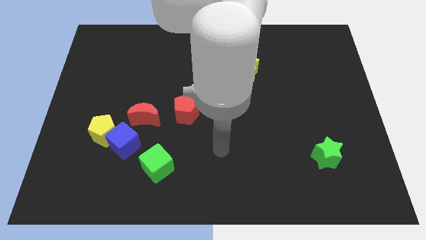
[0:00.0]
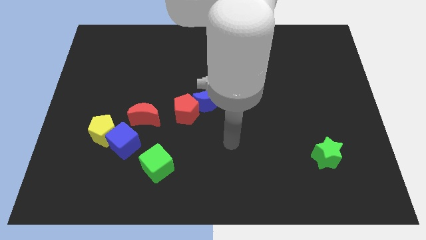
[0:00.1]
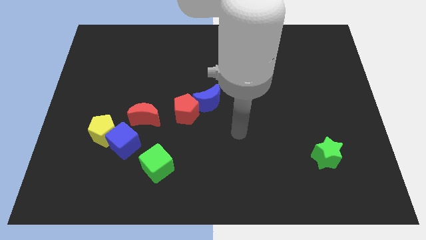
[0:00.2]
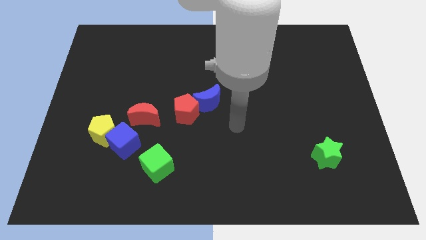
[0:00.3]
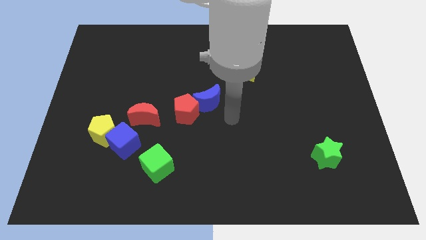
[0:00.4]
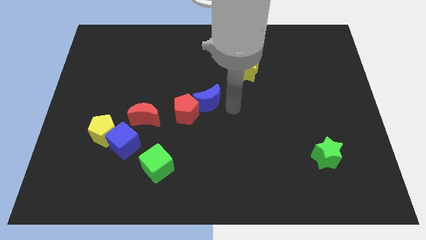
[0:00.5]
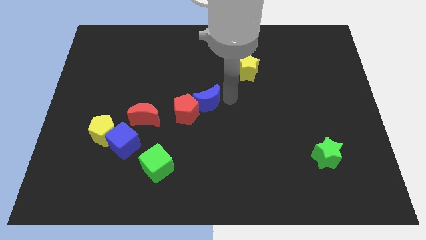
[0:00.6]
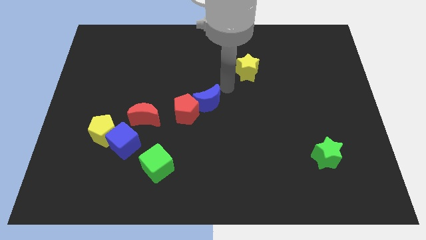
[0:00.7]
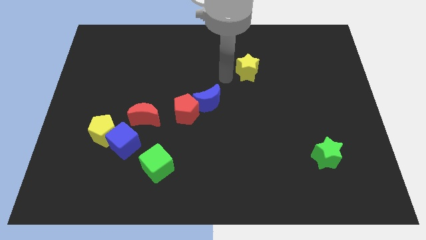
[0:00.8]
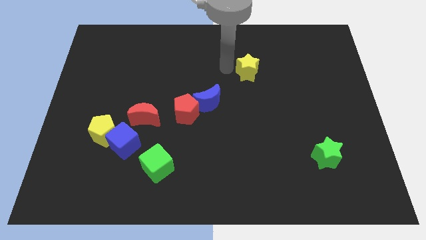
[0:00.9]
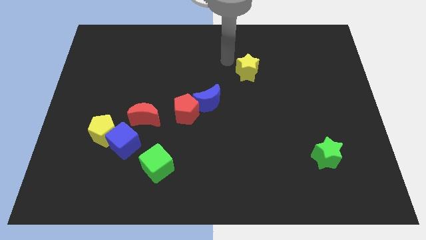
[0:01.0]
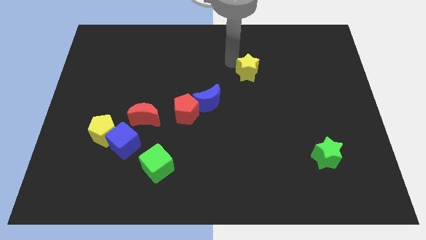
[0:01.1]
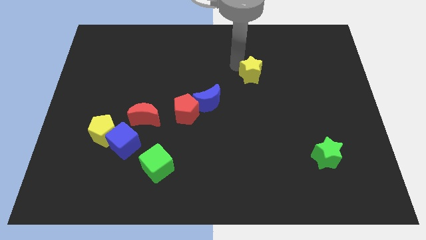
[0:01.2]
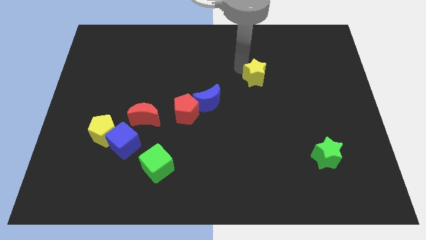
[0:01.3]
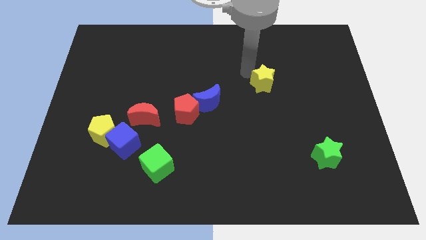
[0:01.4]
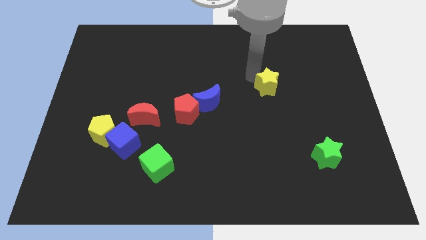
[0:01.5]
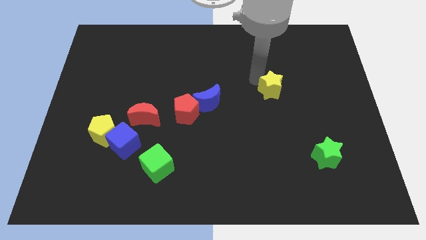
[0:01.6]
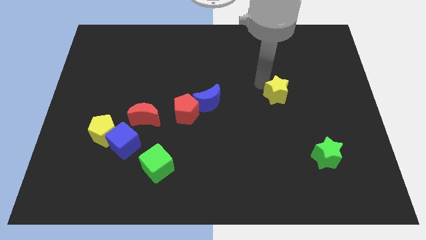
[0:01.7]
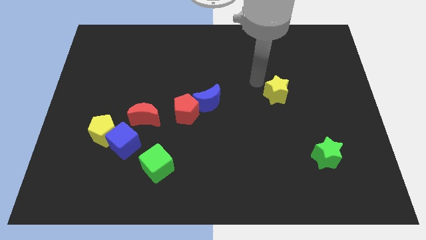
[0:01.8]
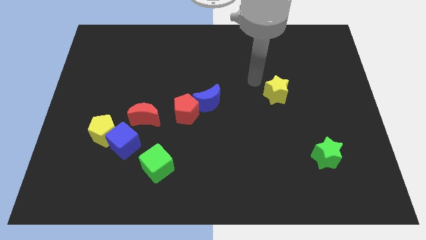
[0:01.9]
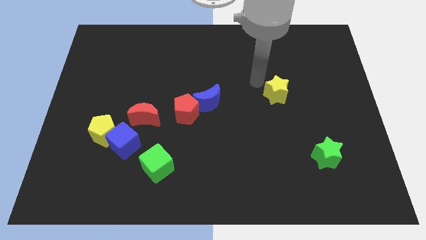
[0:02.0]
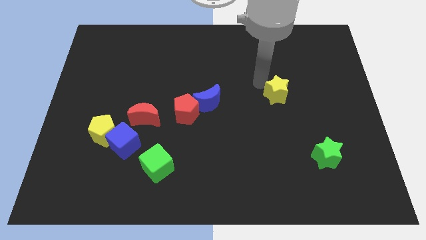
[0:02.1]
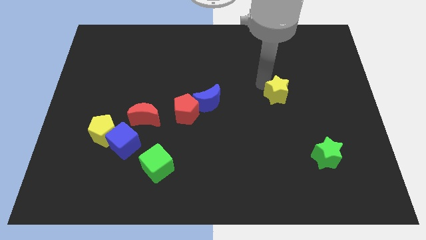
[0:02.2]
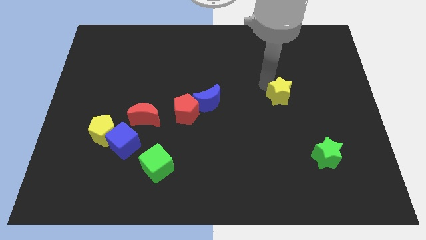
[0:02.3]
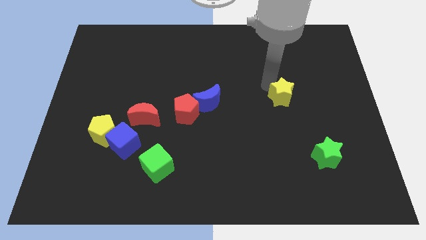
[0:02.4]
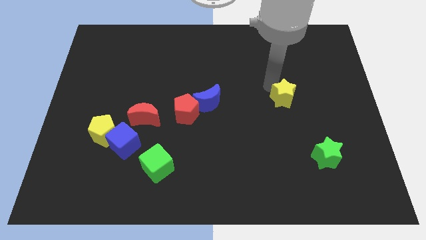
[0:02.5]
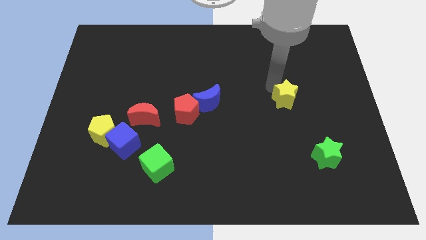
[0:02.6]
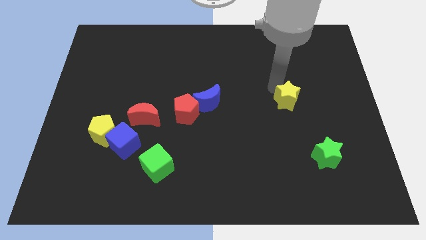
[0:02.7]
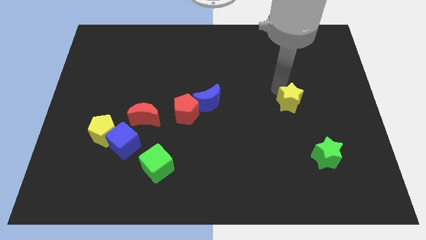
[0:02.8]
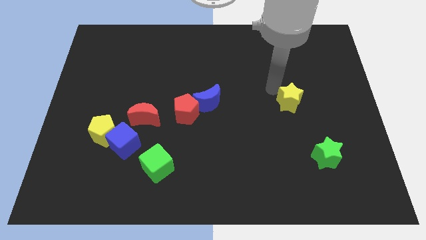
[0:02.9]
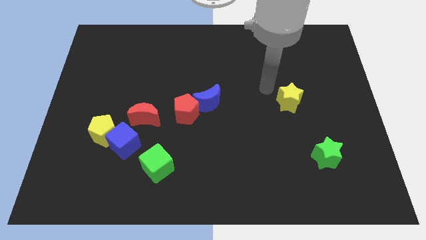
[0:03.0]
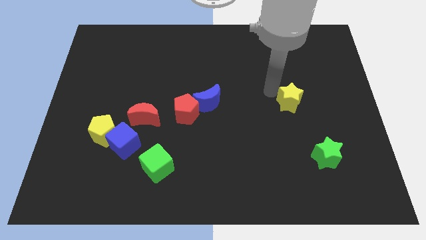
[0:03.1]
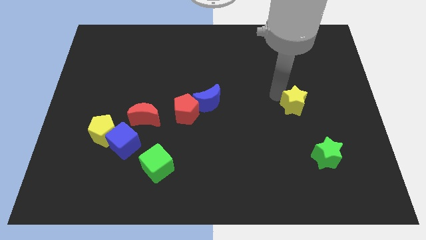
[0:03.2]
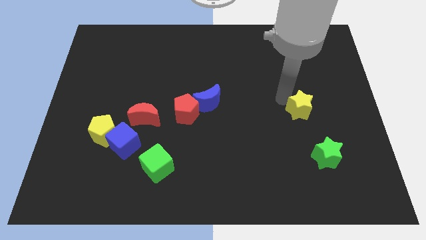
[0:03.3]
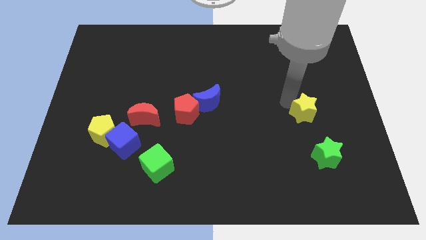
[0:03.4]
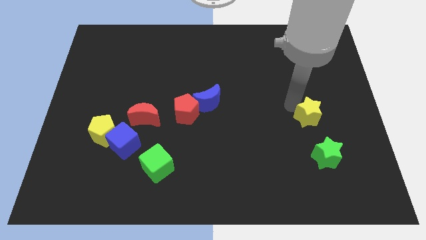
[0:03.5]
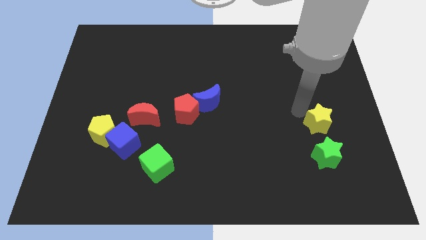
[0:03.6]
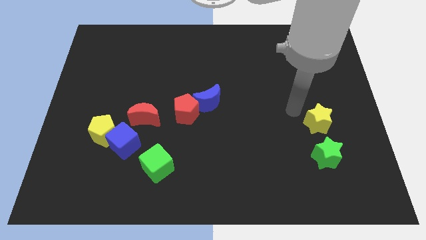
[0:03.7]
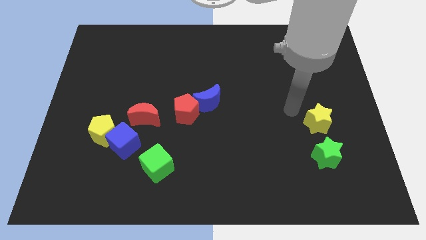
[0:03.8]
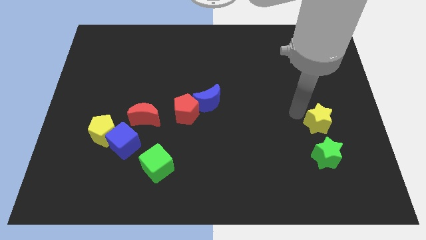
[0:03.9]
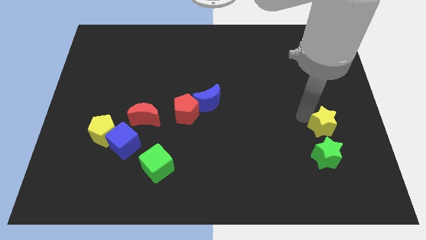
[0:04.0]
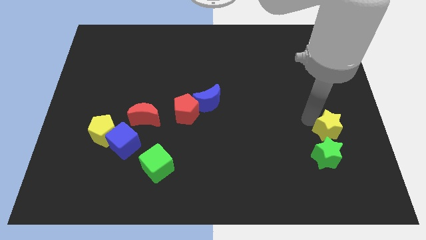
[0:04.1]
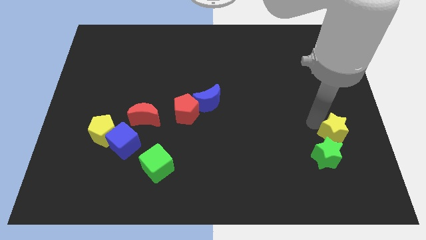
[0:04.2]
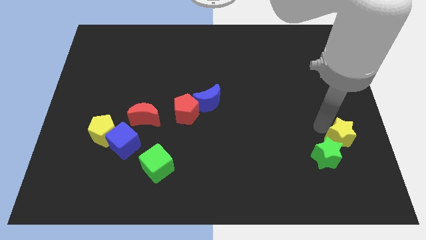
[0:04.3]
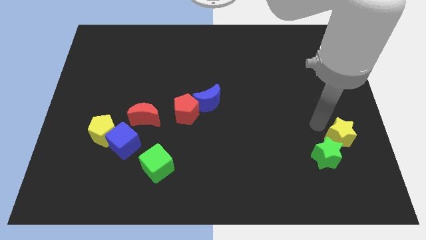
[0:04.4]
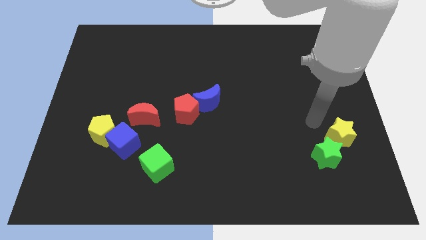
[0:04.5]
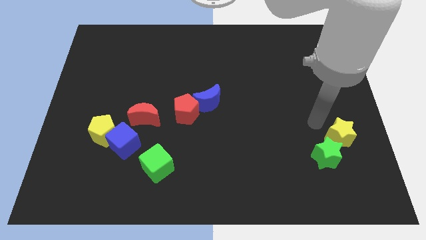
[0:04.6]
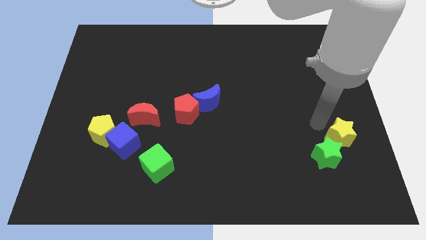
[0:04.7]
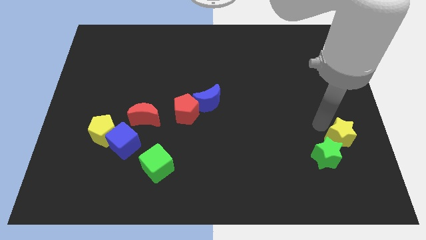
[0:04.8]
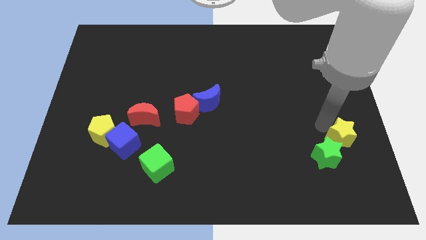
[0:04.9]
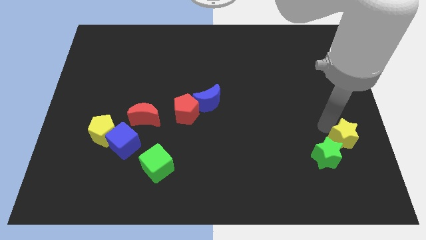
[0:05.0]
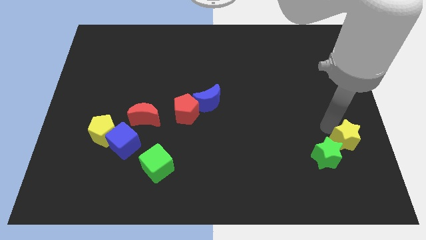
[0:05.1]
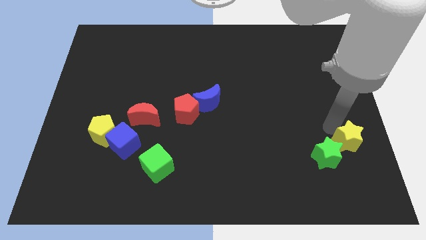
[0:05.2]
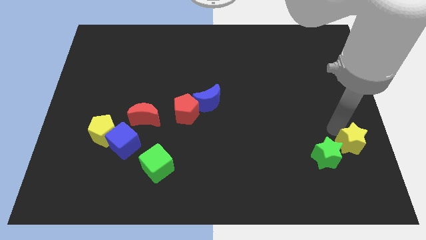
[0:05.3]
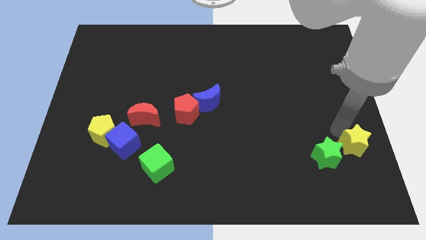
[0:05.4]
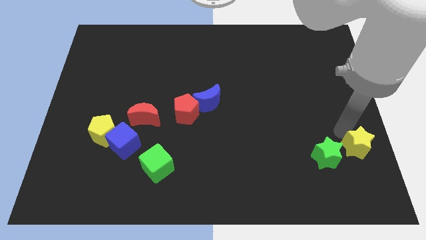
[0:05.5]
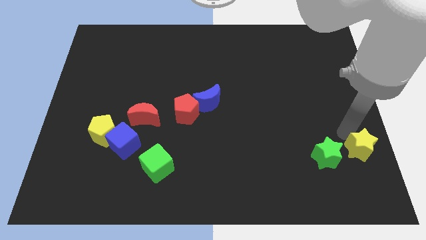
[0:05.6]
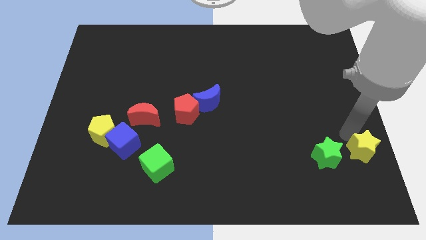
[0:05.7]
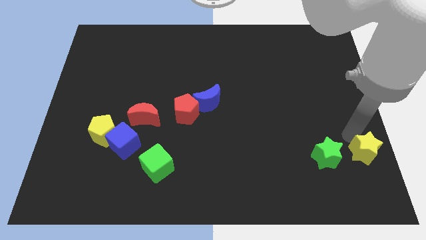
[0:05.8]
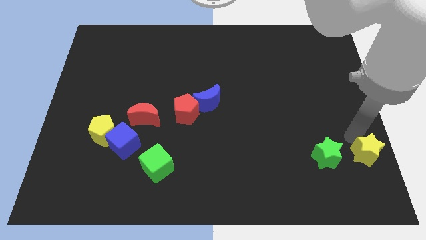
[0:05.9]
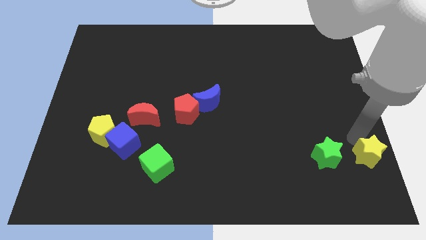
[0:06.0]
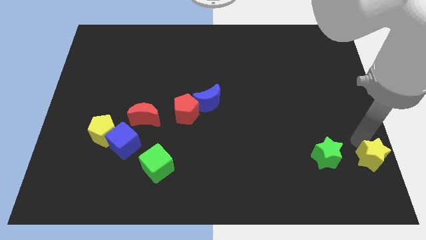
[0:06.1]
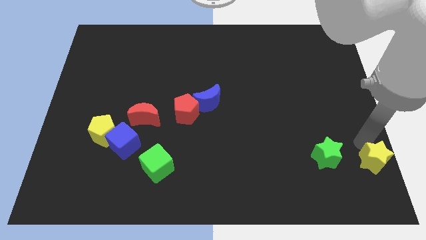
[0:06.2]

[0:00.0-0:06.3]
slide the yellow star to the bottom right of the board
